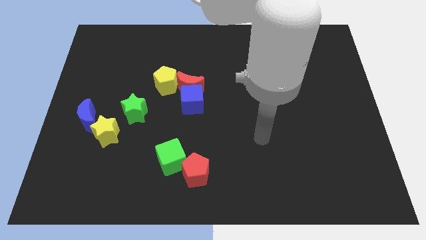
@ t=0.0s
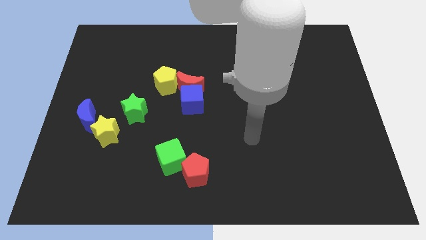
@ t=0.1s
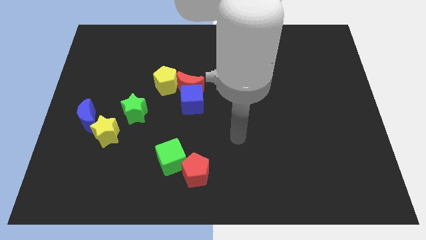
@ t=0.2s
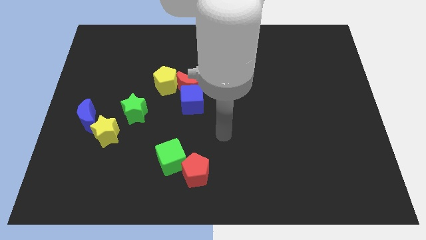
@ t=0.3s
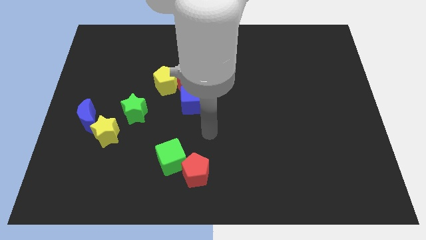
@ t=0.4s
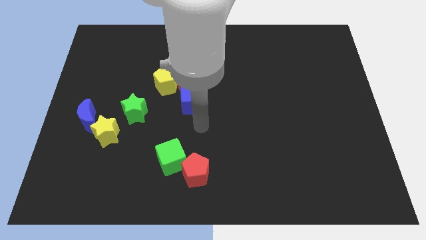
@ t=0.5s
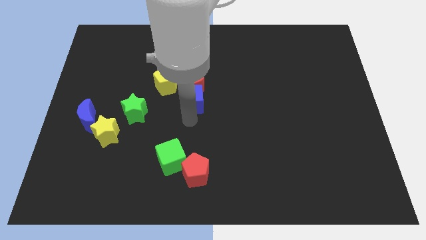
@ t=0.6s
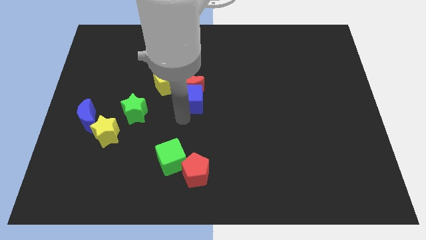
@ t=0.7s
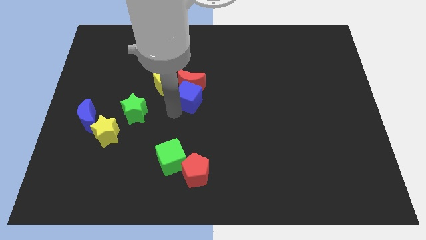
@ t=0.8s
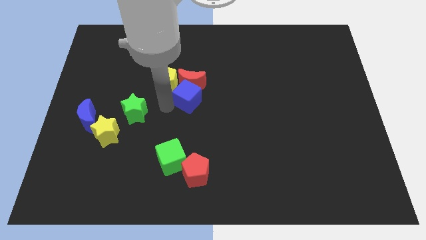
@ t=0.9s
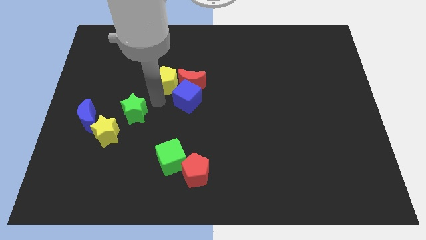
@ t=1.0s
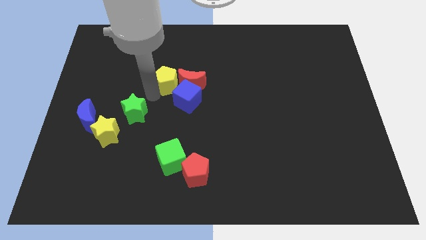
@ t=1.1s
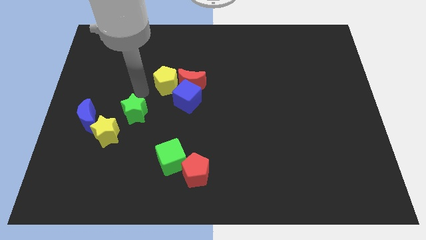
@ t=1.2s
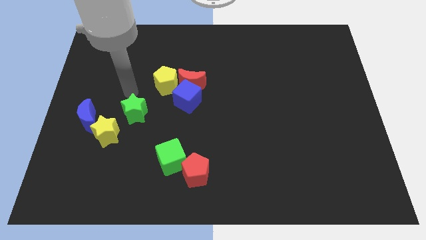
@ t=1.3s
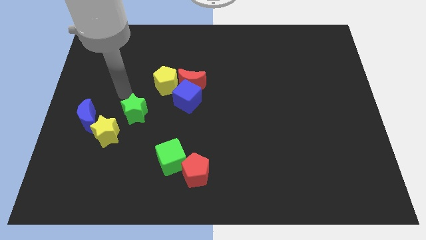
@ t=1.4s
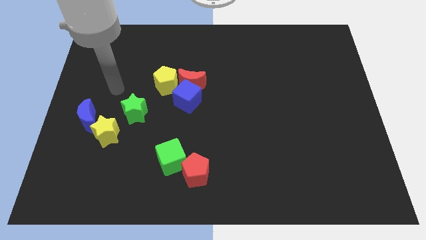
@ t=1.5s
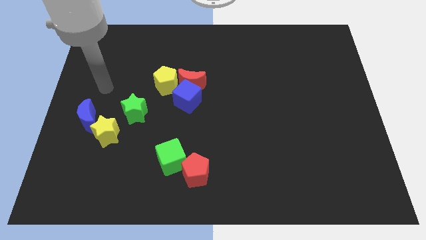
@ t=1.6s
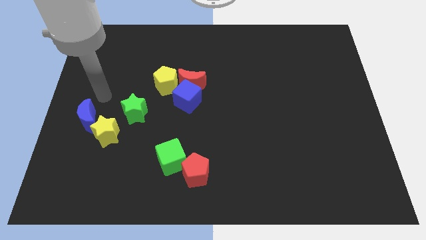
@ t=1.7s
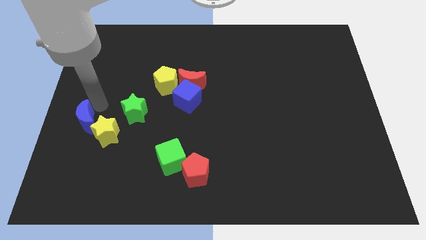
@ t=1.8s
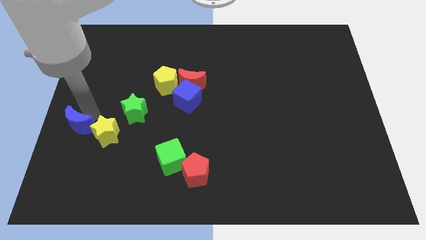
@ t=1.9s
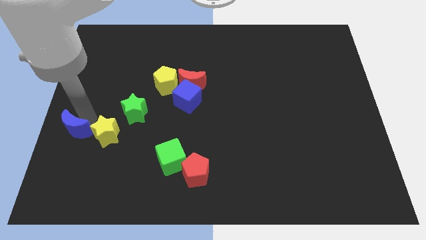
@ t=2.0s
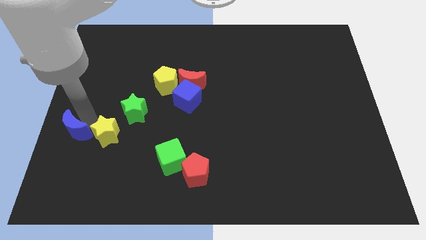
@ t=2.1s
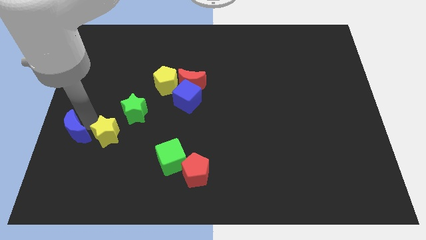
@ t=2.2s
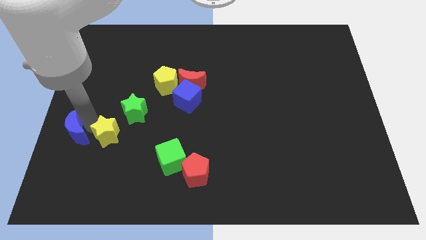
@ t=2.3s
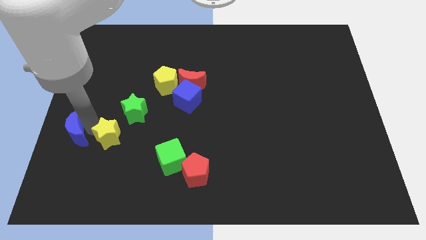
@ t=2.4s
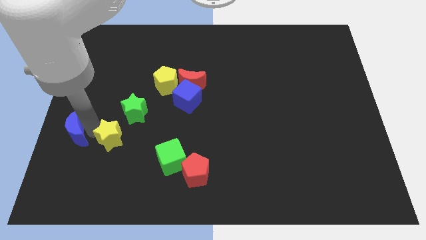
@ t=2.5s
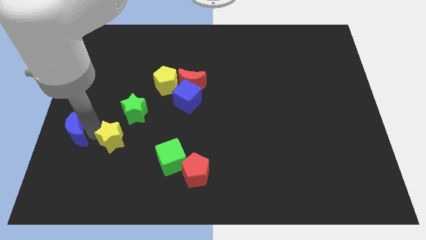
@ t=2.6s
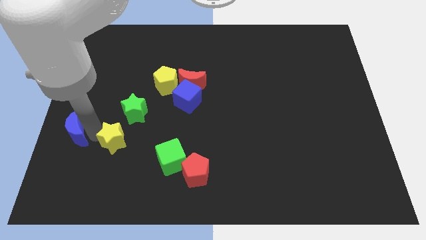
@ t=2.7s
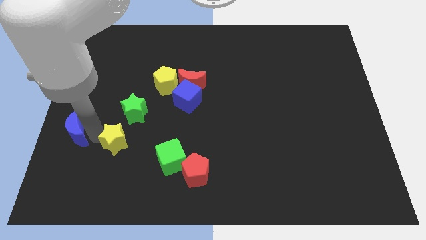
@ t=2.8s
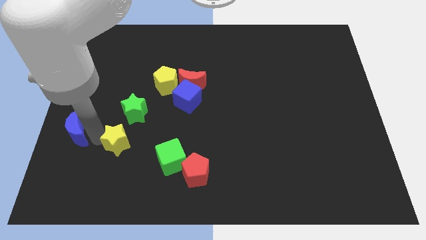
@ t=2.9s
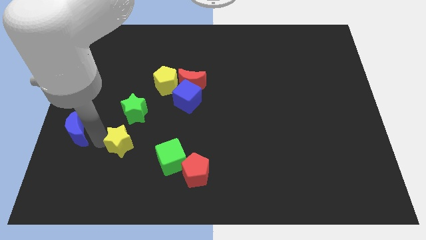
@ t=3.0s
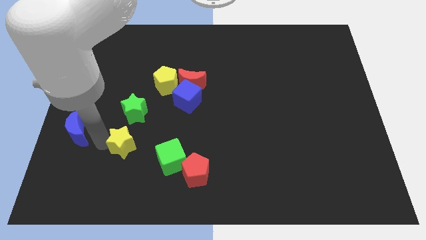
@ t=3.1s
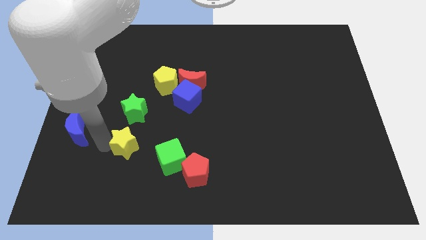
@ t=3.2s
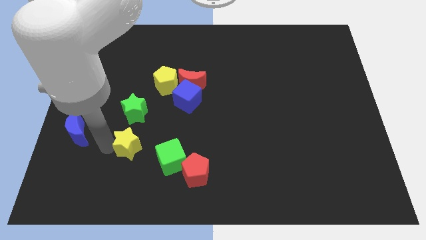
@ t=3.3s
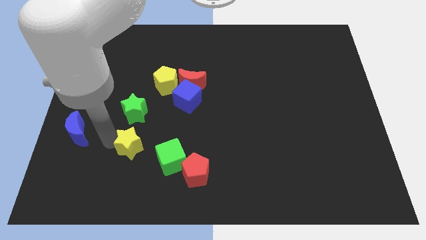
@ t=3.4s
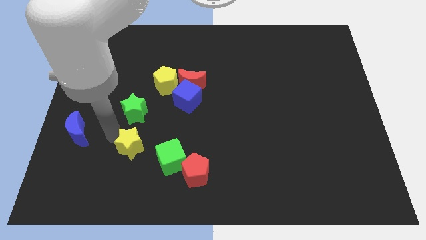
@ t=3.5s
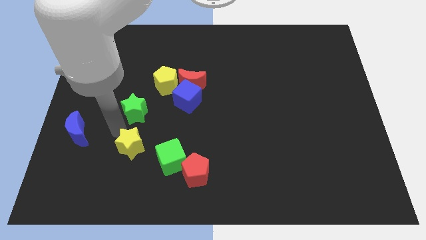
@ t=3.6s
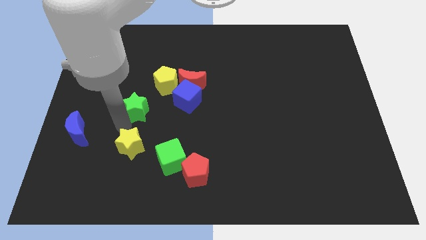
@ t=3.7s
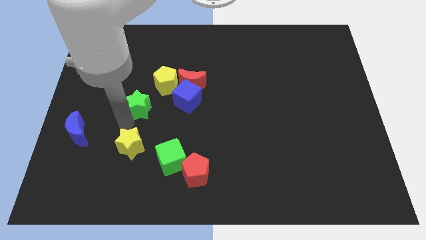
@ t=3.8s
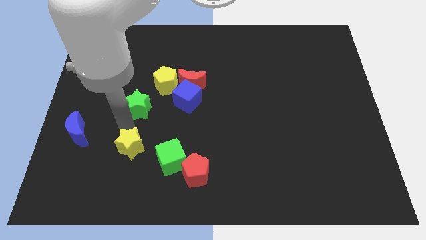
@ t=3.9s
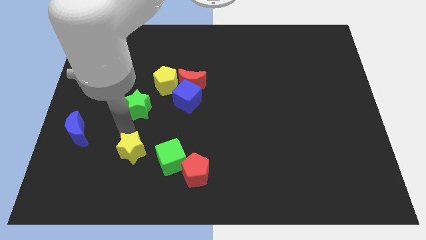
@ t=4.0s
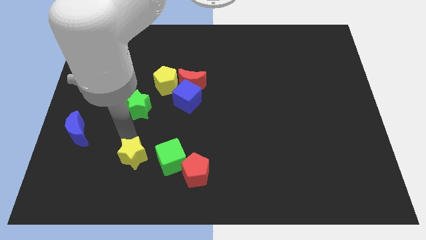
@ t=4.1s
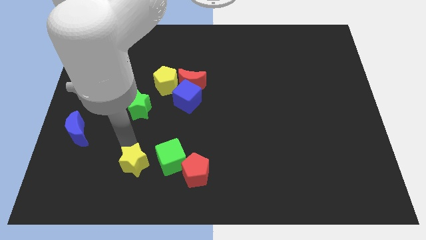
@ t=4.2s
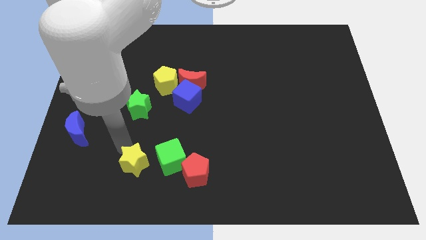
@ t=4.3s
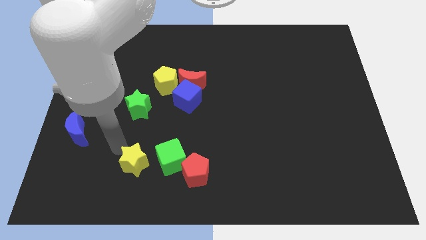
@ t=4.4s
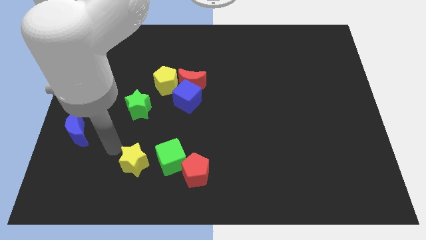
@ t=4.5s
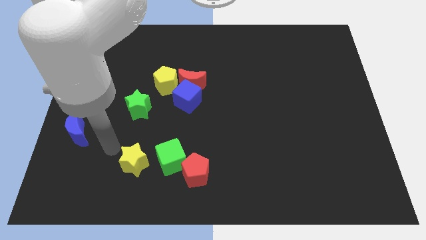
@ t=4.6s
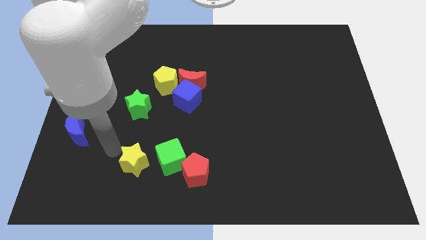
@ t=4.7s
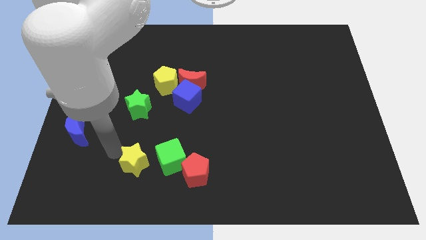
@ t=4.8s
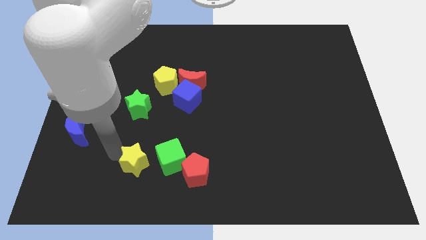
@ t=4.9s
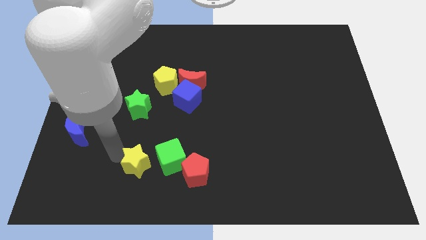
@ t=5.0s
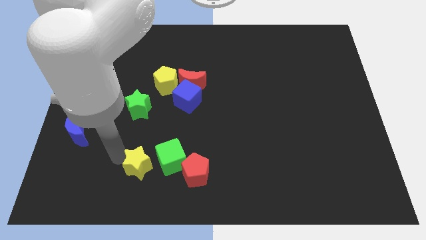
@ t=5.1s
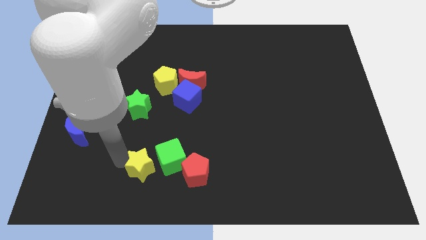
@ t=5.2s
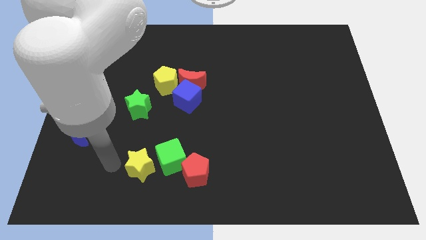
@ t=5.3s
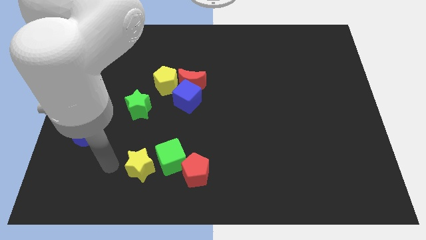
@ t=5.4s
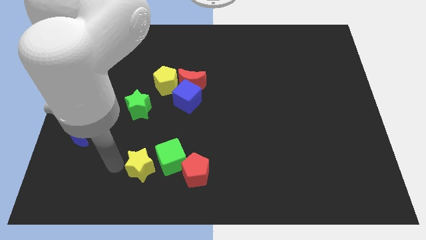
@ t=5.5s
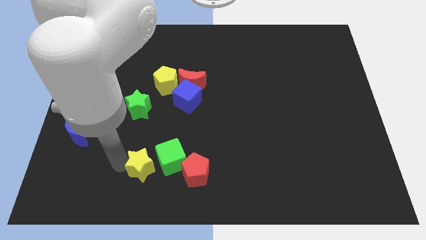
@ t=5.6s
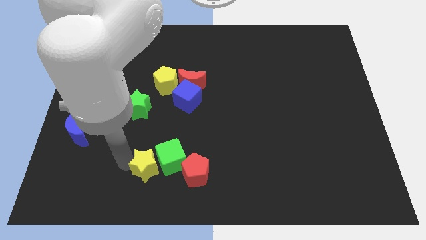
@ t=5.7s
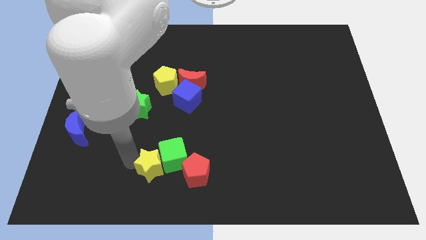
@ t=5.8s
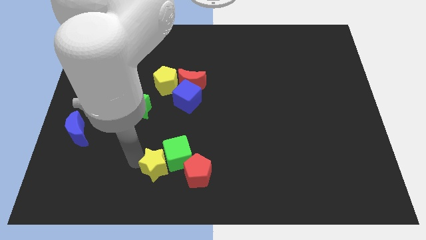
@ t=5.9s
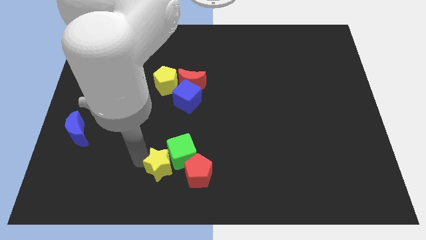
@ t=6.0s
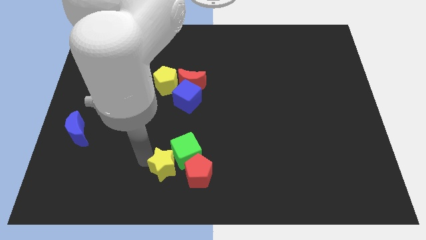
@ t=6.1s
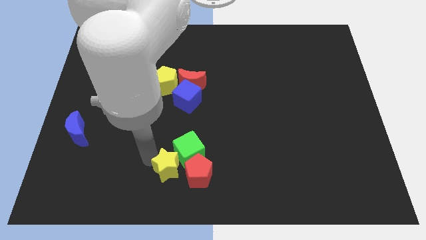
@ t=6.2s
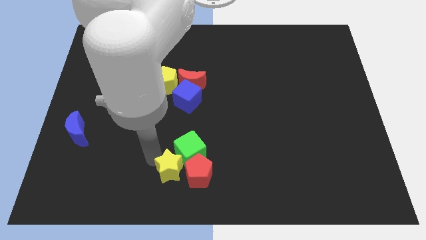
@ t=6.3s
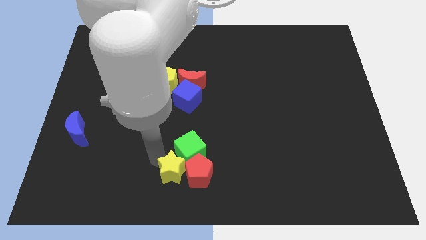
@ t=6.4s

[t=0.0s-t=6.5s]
move the yellow star towards the red pentagon
